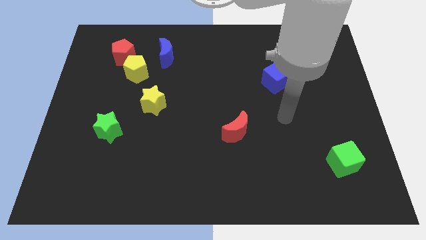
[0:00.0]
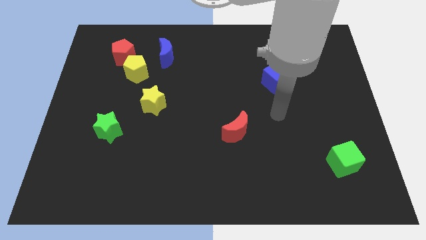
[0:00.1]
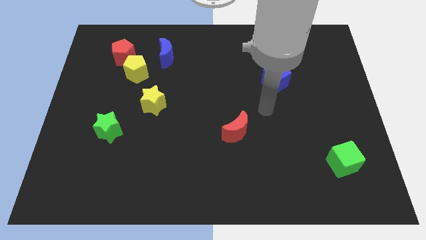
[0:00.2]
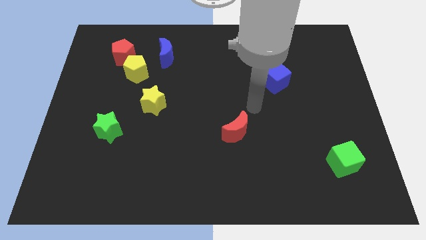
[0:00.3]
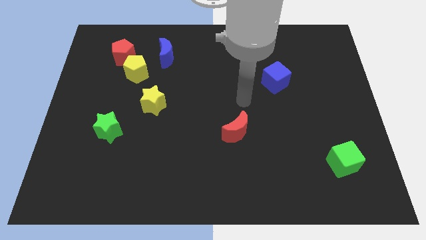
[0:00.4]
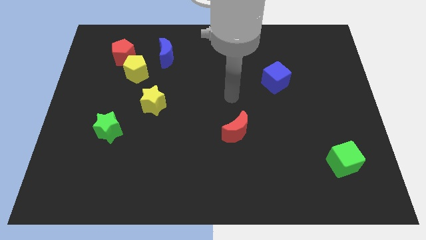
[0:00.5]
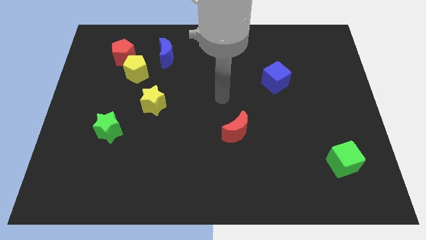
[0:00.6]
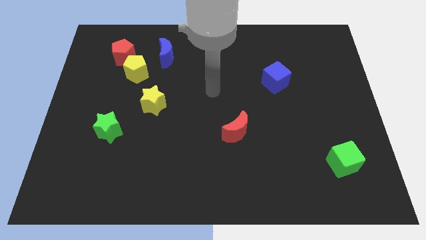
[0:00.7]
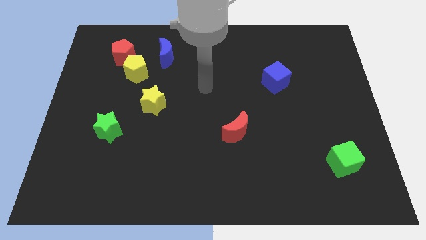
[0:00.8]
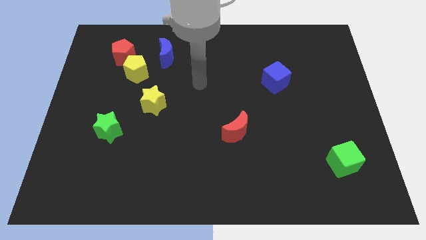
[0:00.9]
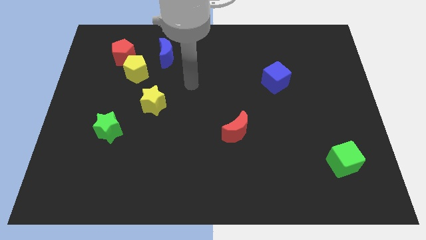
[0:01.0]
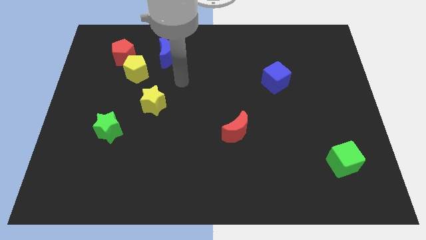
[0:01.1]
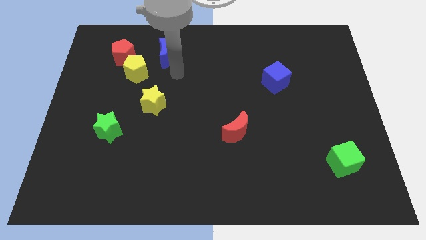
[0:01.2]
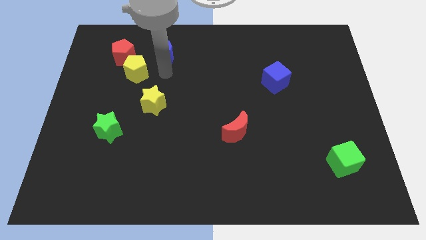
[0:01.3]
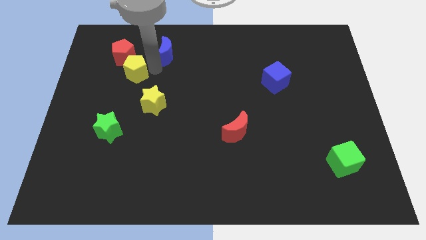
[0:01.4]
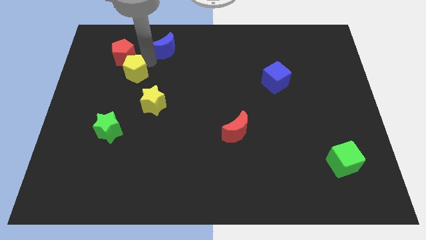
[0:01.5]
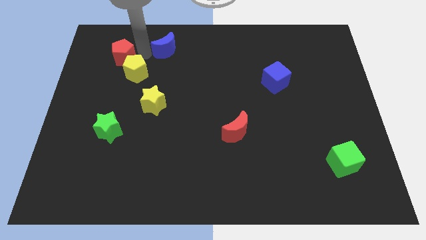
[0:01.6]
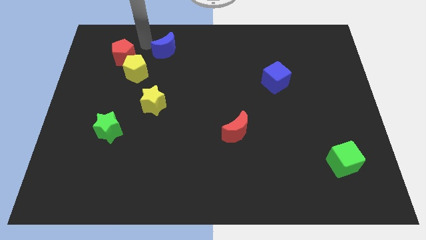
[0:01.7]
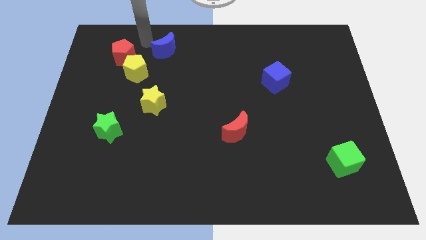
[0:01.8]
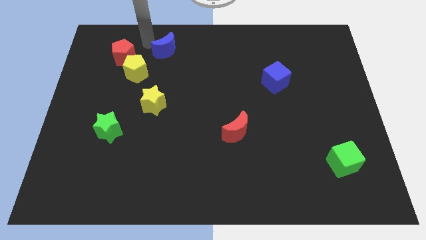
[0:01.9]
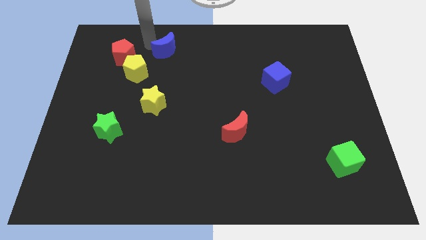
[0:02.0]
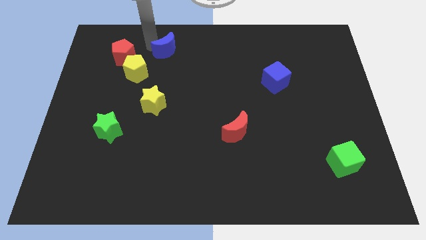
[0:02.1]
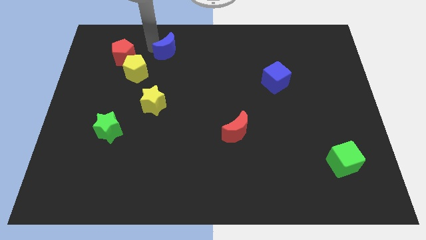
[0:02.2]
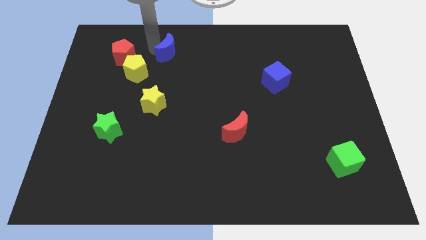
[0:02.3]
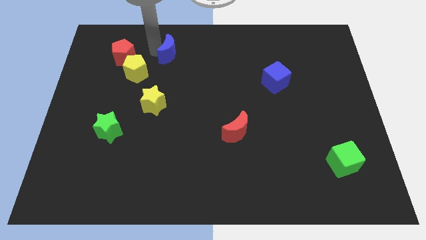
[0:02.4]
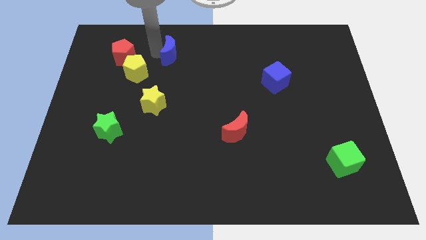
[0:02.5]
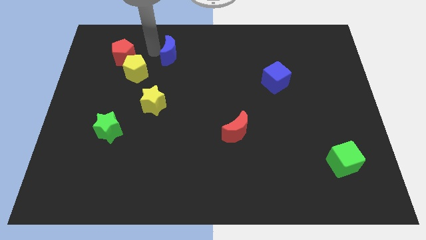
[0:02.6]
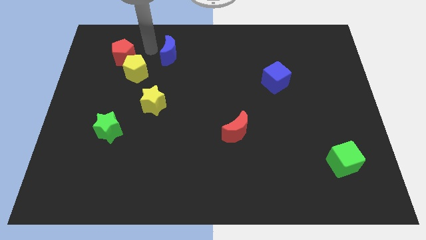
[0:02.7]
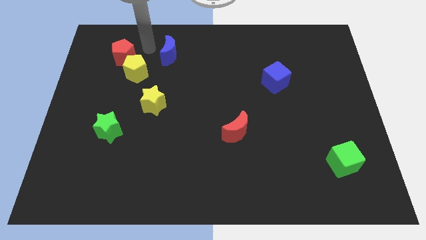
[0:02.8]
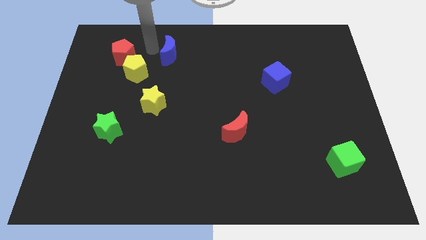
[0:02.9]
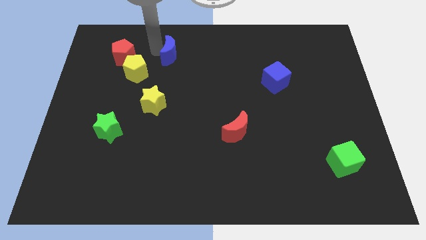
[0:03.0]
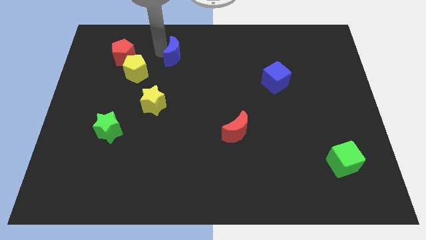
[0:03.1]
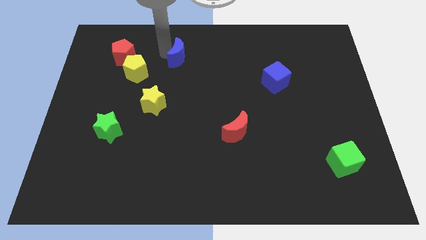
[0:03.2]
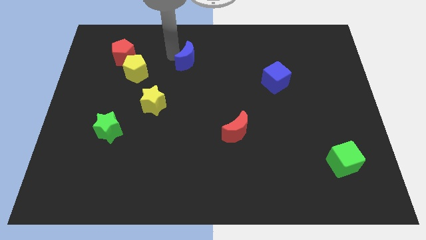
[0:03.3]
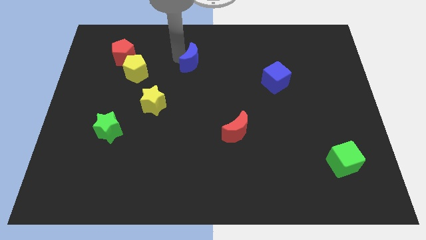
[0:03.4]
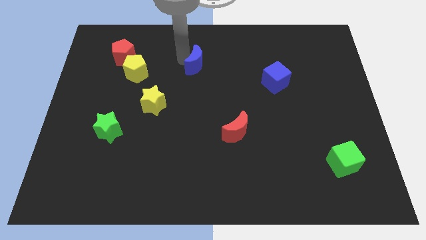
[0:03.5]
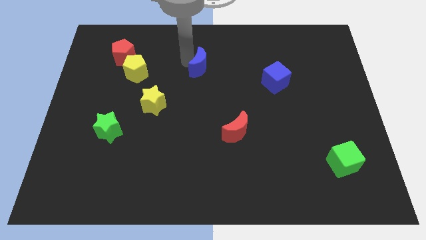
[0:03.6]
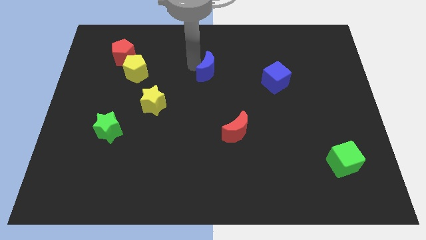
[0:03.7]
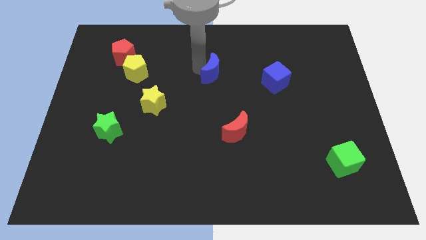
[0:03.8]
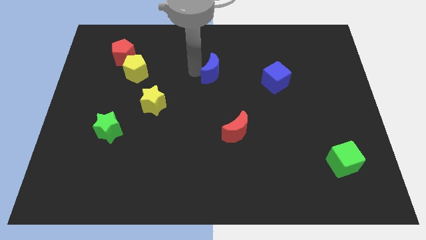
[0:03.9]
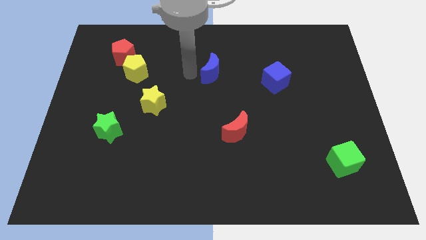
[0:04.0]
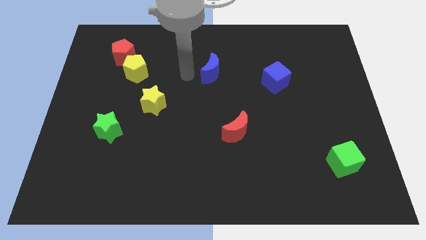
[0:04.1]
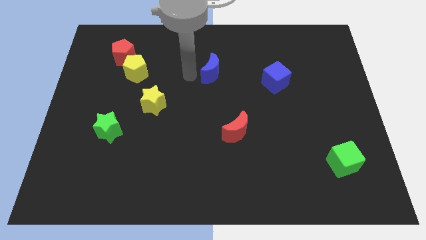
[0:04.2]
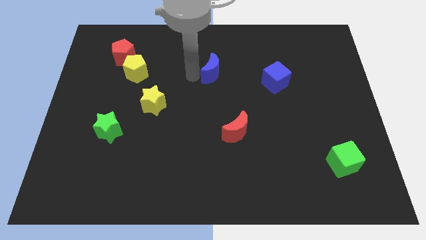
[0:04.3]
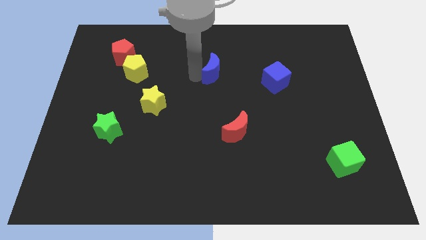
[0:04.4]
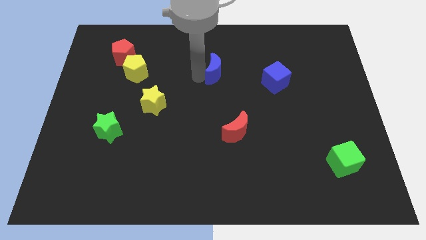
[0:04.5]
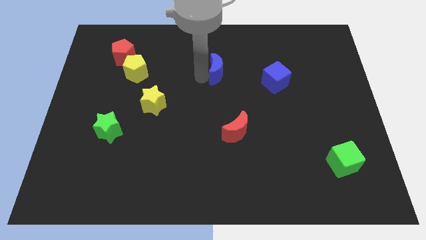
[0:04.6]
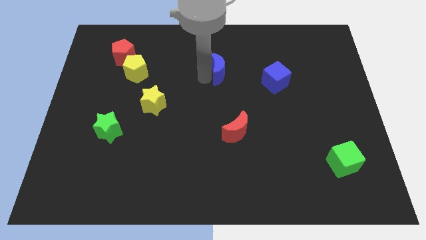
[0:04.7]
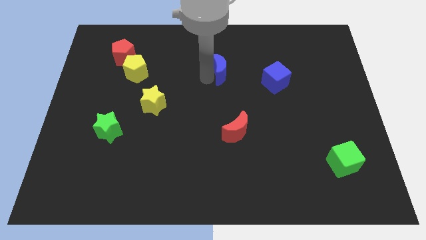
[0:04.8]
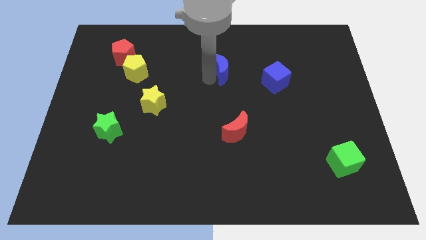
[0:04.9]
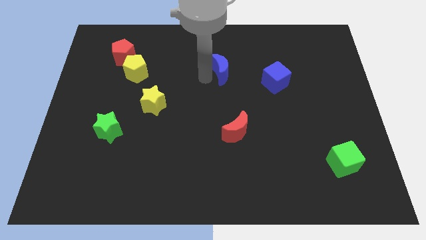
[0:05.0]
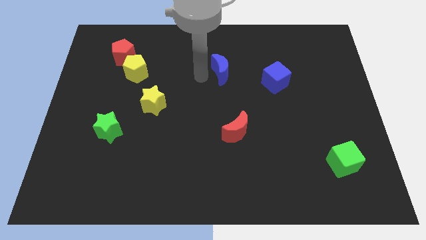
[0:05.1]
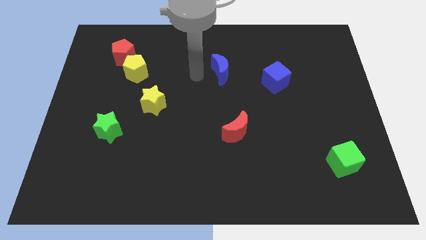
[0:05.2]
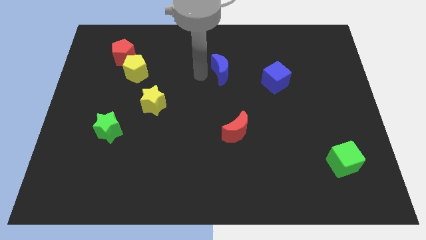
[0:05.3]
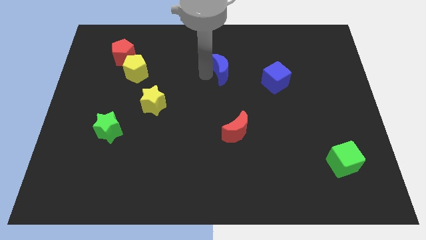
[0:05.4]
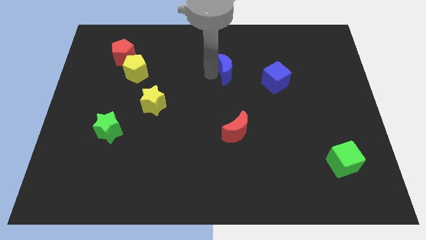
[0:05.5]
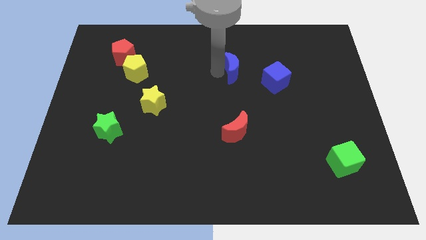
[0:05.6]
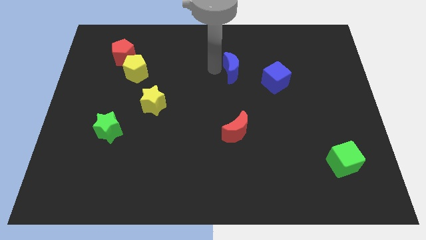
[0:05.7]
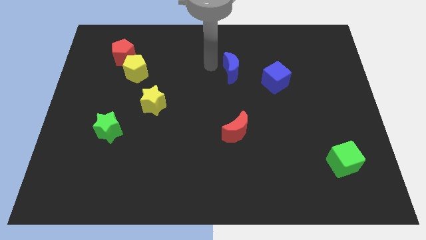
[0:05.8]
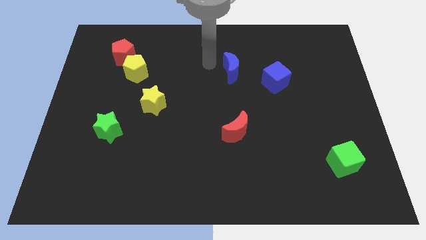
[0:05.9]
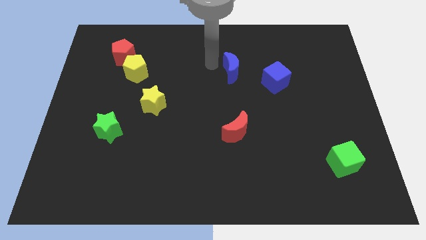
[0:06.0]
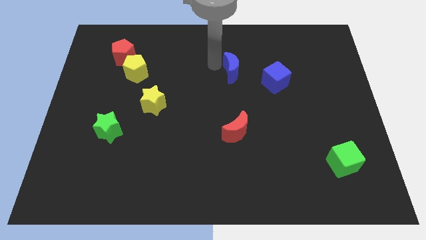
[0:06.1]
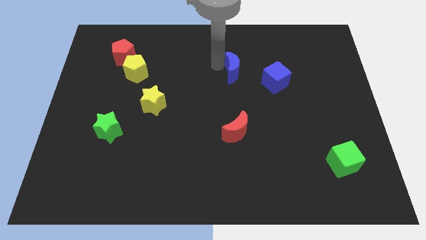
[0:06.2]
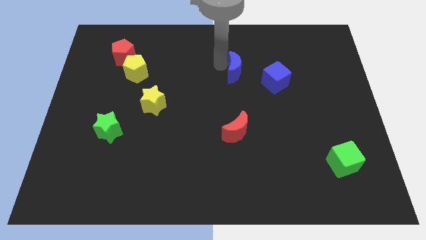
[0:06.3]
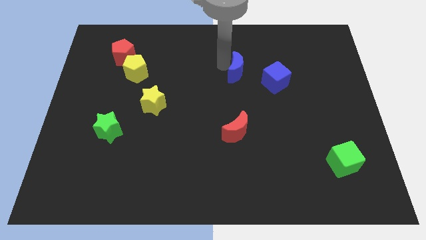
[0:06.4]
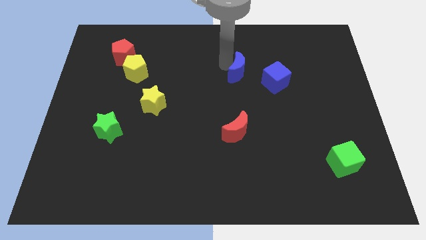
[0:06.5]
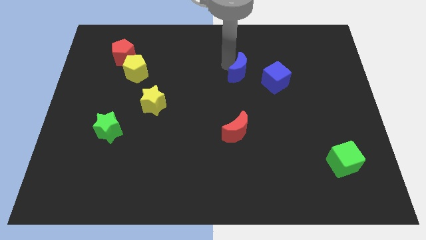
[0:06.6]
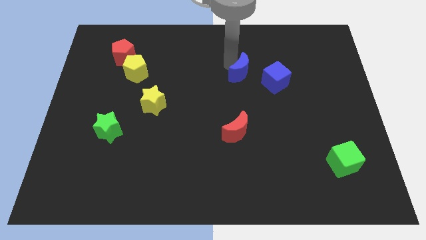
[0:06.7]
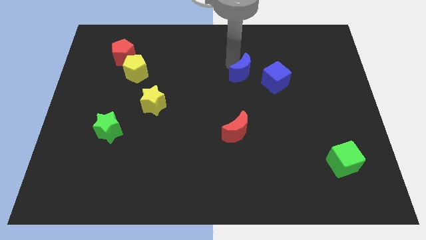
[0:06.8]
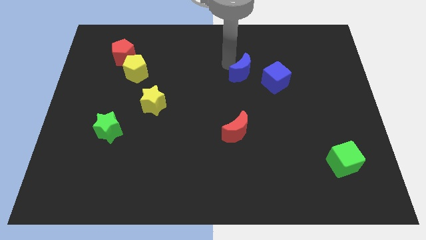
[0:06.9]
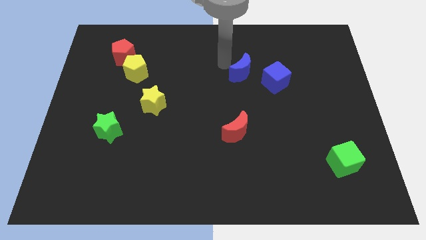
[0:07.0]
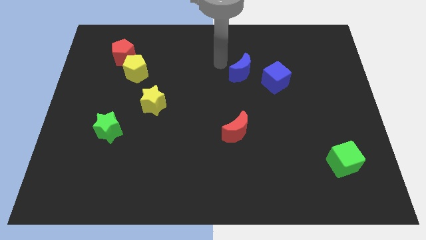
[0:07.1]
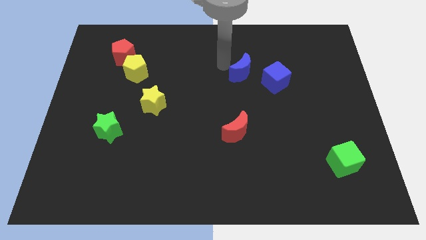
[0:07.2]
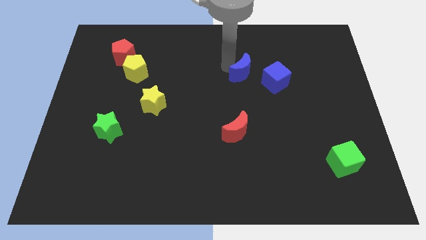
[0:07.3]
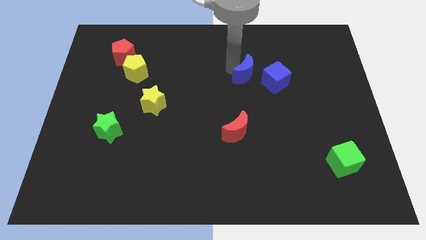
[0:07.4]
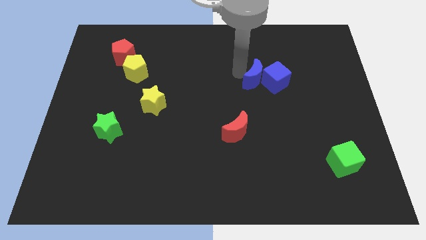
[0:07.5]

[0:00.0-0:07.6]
move the blue moon next to the blue cube
